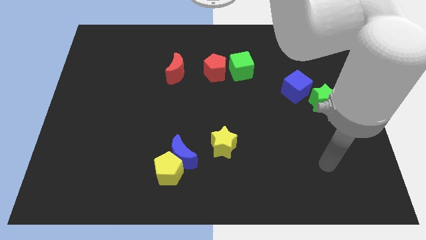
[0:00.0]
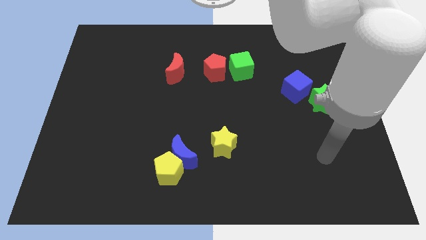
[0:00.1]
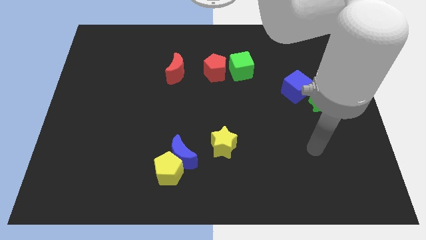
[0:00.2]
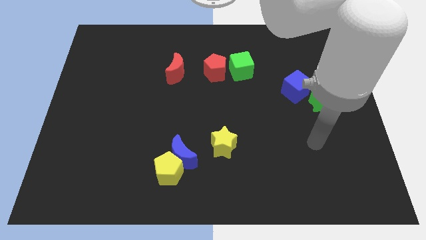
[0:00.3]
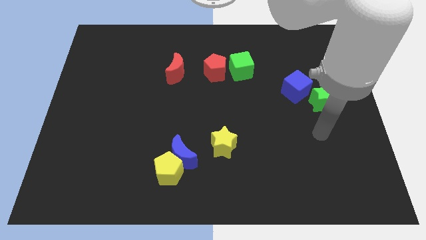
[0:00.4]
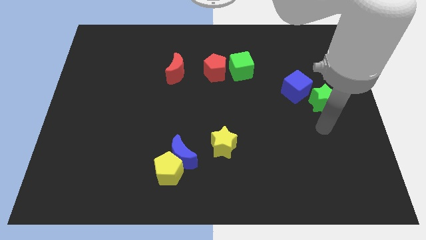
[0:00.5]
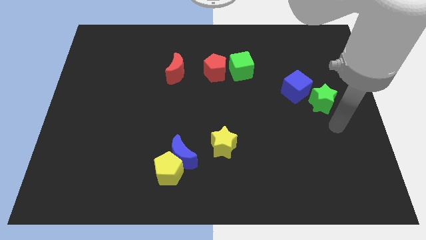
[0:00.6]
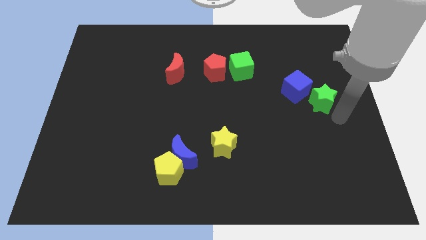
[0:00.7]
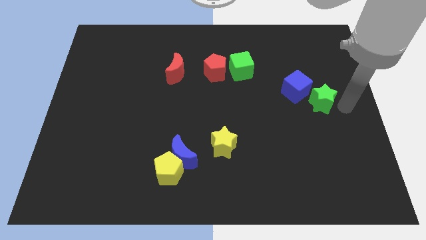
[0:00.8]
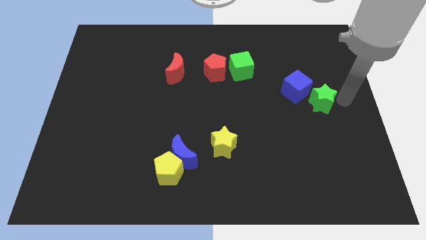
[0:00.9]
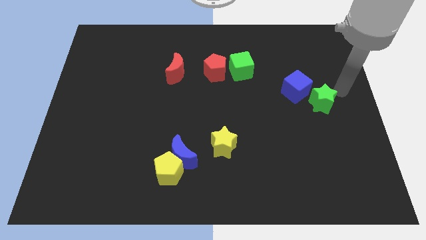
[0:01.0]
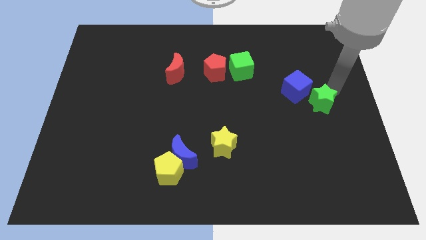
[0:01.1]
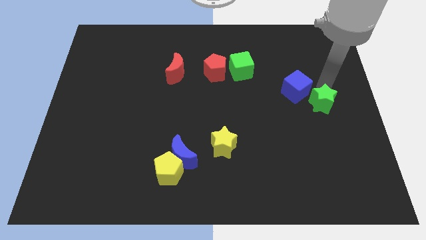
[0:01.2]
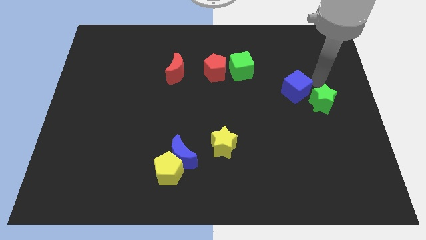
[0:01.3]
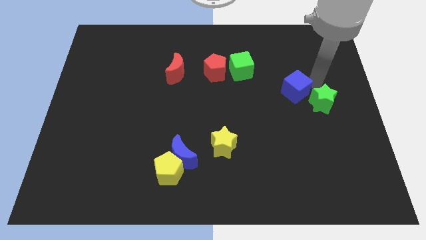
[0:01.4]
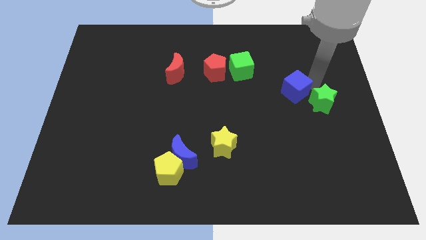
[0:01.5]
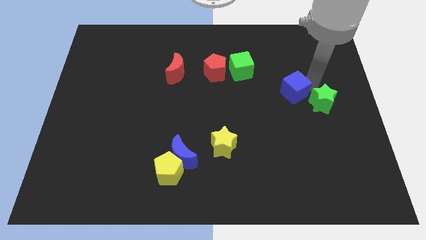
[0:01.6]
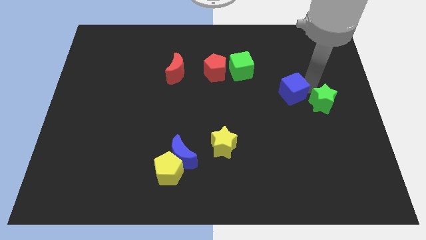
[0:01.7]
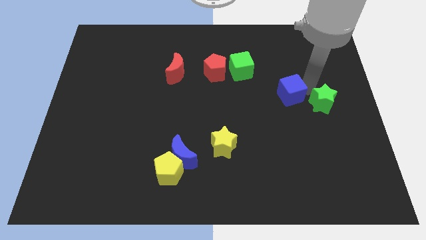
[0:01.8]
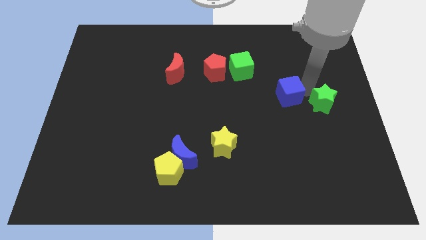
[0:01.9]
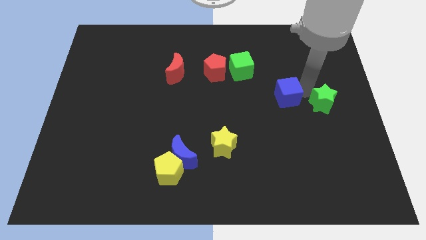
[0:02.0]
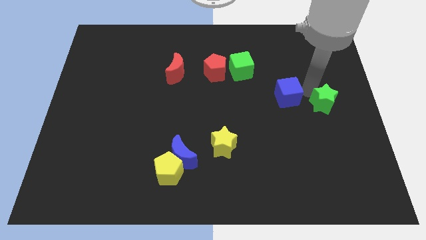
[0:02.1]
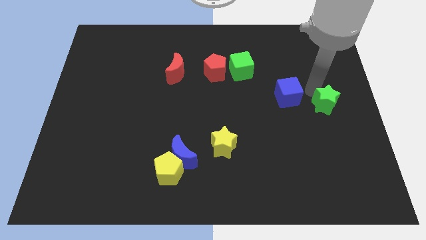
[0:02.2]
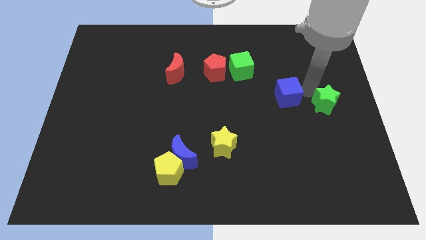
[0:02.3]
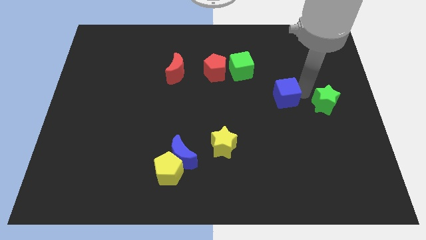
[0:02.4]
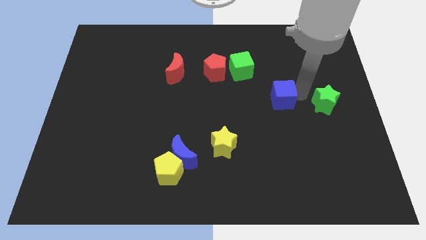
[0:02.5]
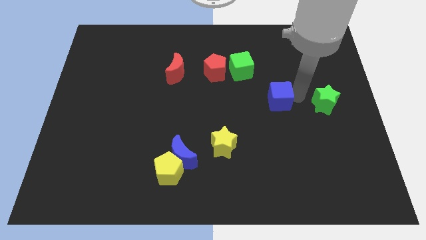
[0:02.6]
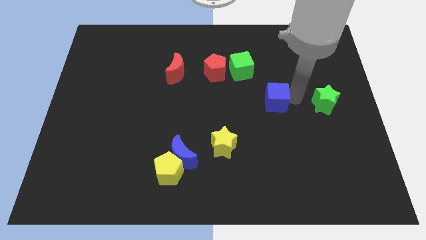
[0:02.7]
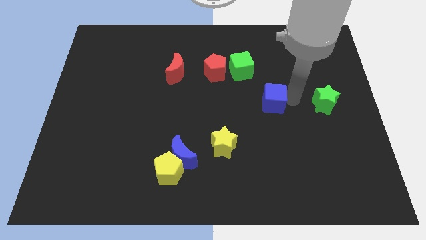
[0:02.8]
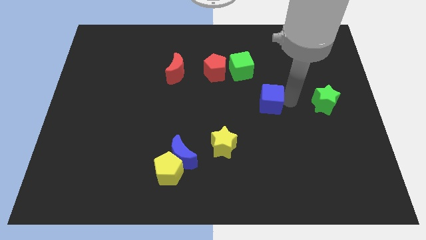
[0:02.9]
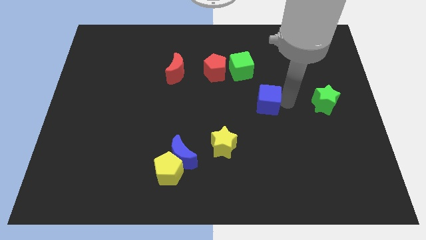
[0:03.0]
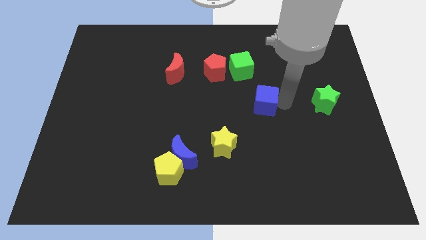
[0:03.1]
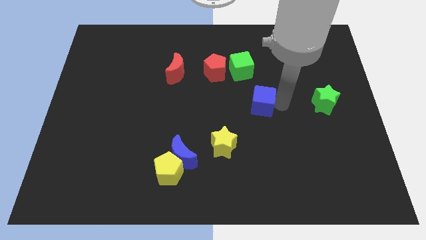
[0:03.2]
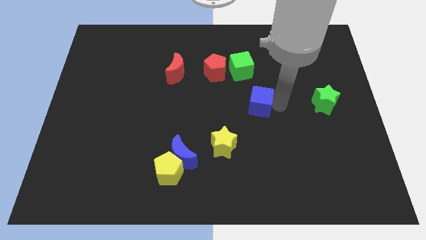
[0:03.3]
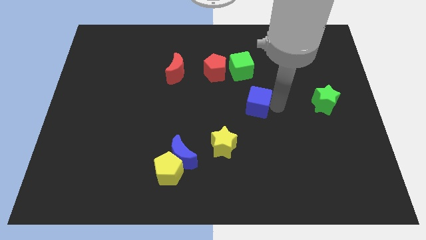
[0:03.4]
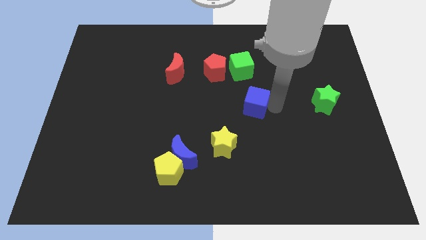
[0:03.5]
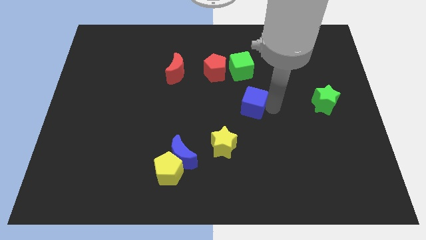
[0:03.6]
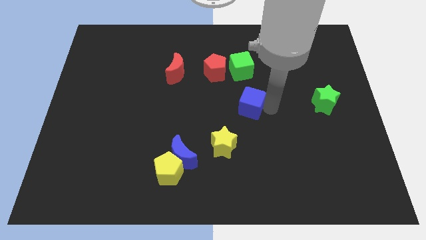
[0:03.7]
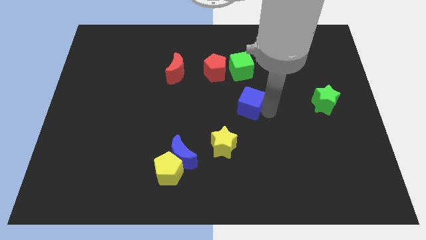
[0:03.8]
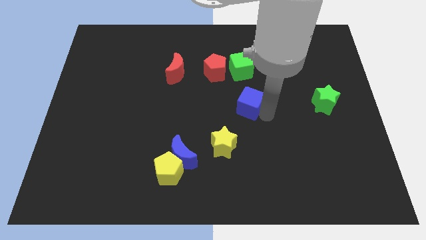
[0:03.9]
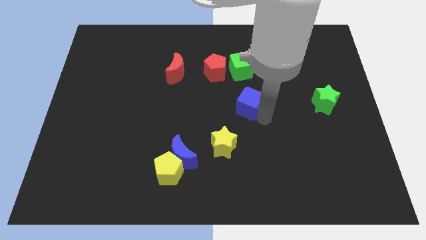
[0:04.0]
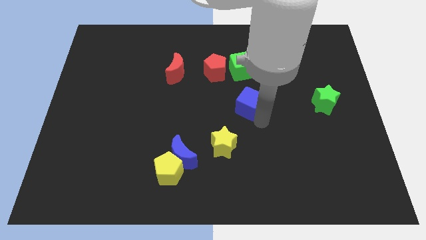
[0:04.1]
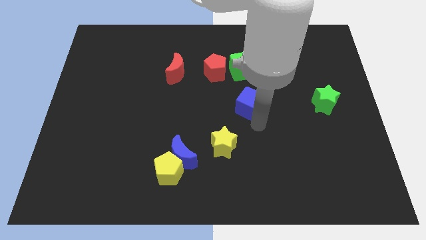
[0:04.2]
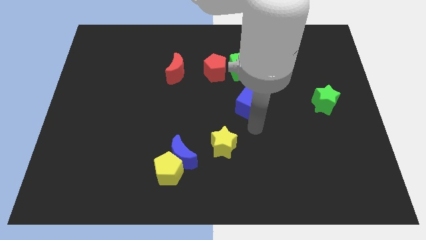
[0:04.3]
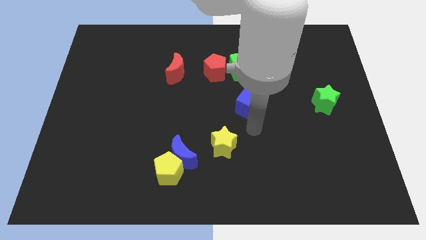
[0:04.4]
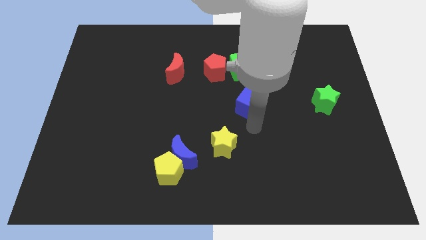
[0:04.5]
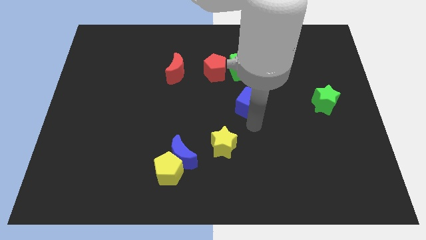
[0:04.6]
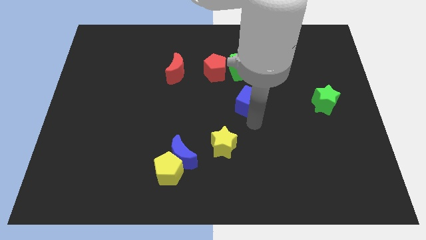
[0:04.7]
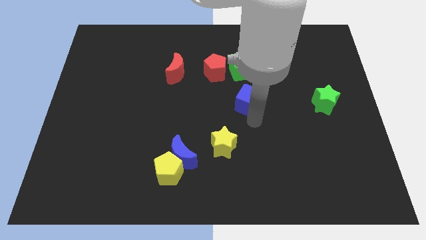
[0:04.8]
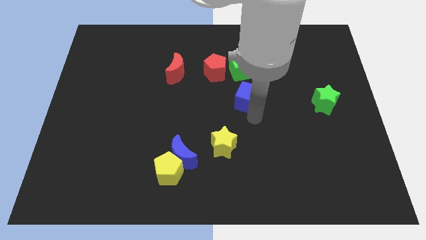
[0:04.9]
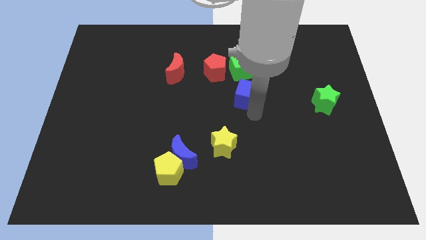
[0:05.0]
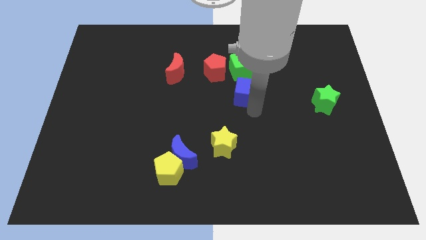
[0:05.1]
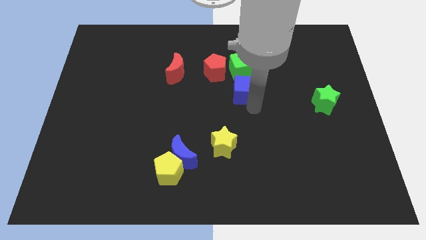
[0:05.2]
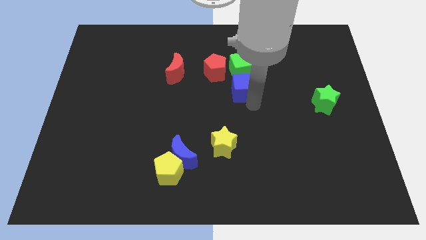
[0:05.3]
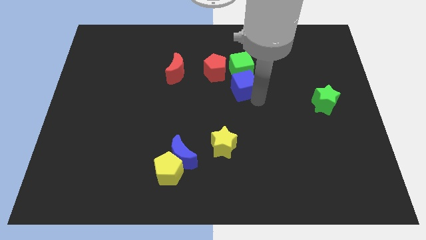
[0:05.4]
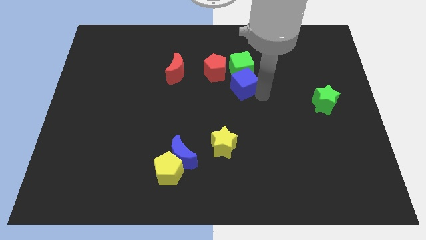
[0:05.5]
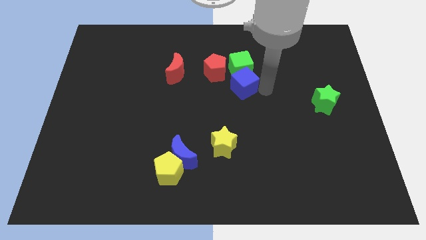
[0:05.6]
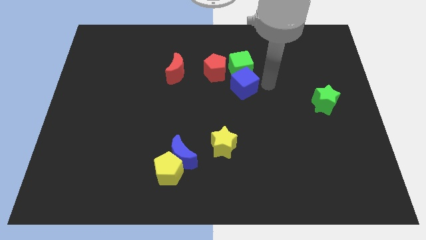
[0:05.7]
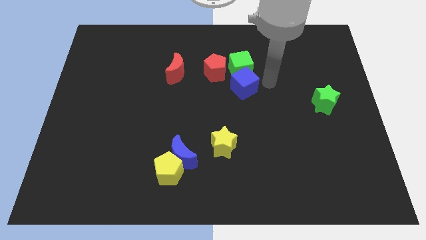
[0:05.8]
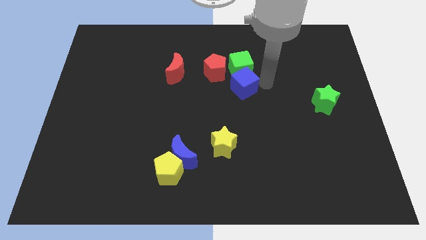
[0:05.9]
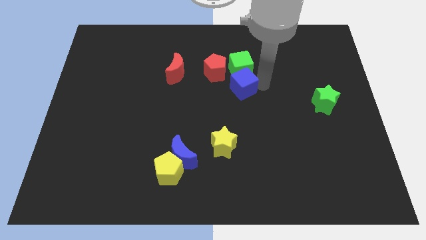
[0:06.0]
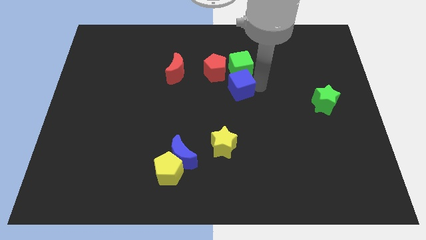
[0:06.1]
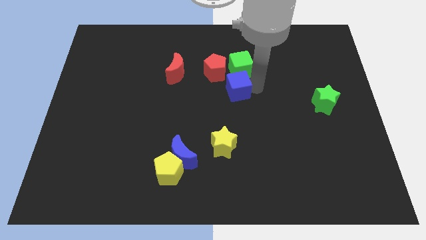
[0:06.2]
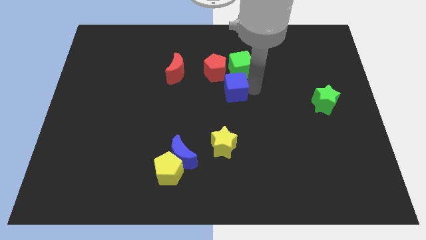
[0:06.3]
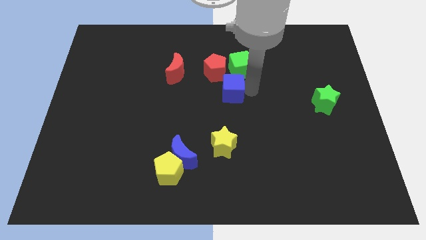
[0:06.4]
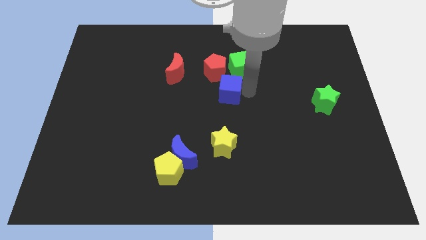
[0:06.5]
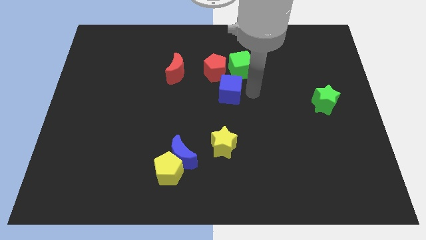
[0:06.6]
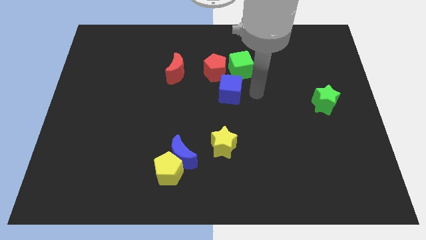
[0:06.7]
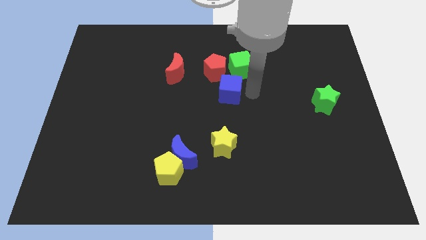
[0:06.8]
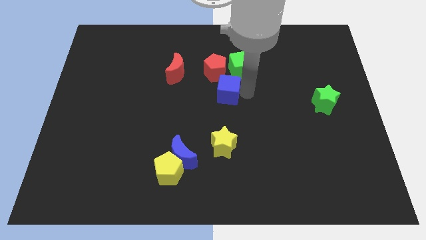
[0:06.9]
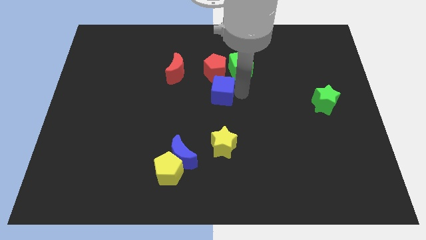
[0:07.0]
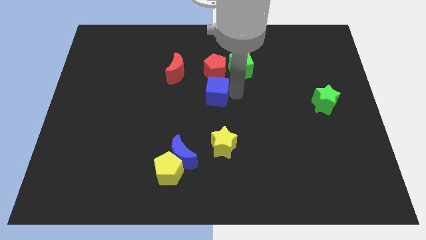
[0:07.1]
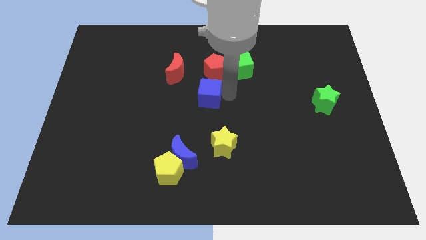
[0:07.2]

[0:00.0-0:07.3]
push the blue cube to the bottom left side of the red pentagon
